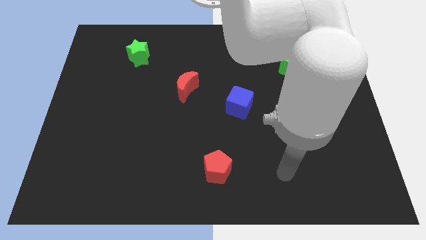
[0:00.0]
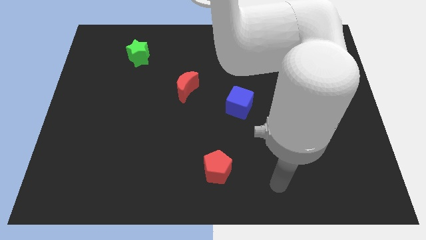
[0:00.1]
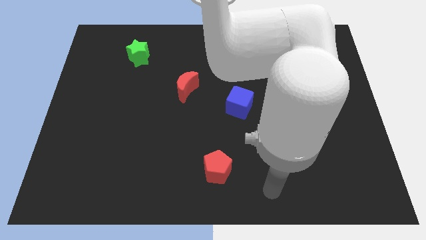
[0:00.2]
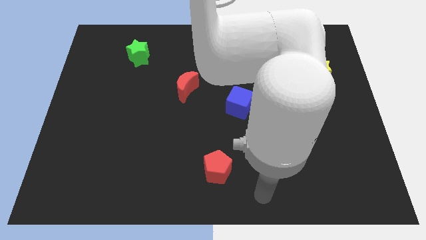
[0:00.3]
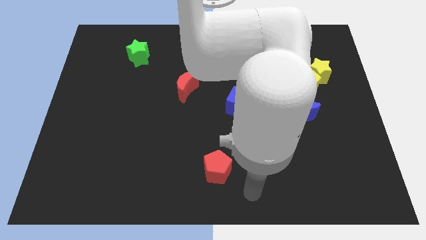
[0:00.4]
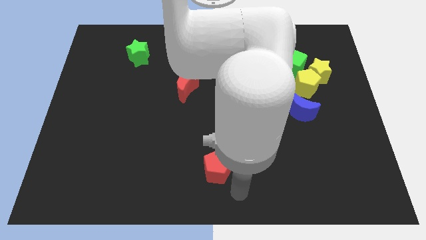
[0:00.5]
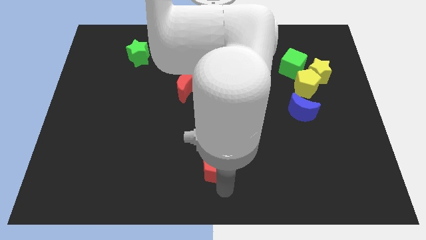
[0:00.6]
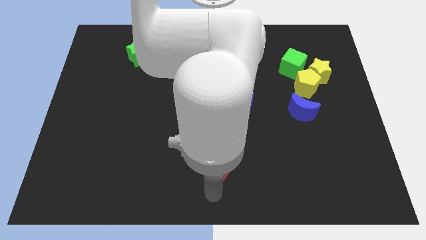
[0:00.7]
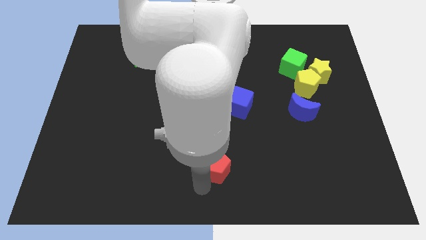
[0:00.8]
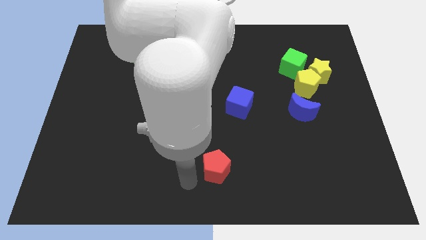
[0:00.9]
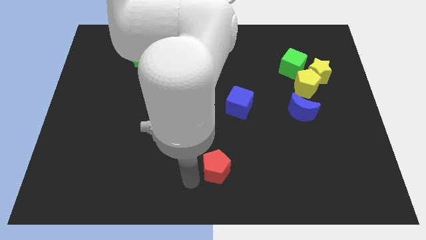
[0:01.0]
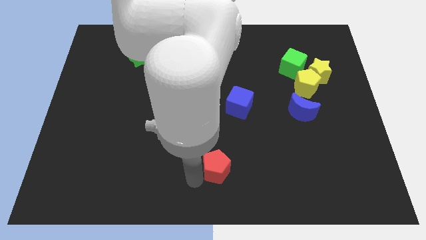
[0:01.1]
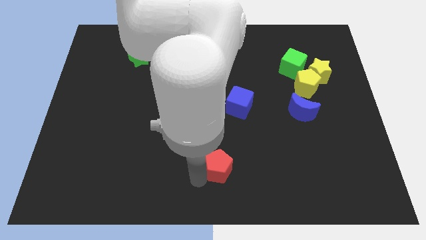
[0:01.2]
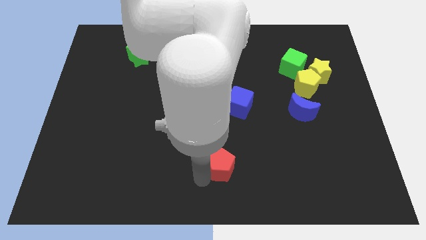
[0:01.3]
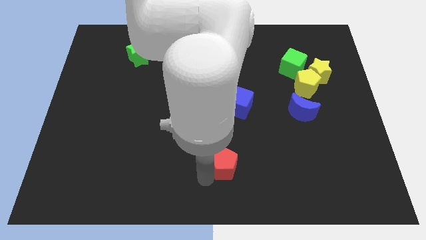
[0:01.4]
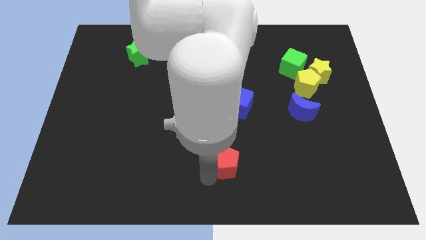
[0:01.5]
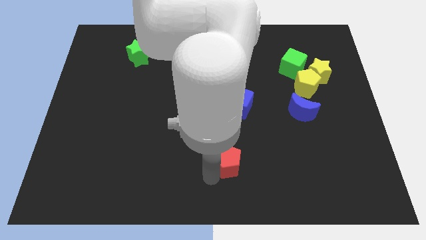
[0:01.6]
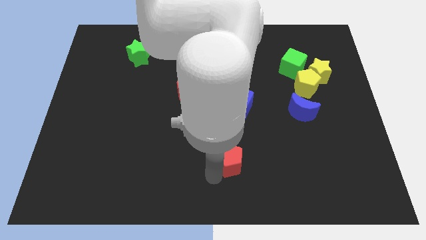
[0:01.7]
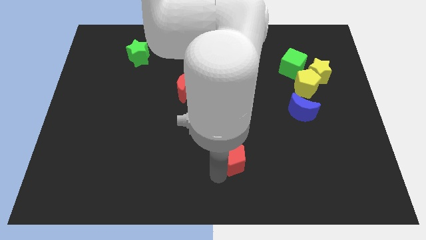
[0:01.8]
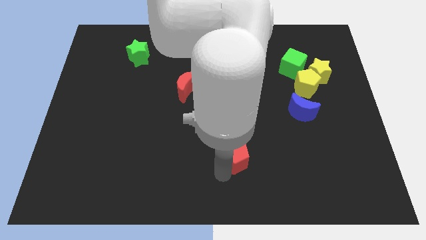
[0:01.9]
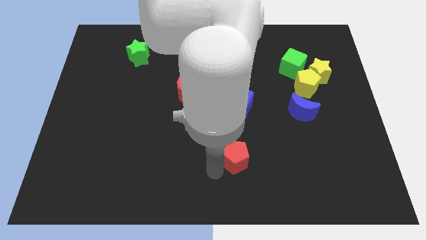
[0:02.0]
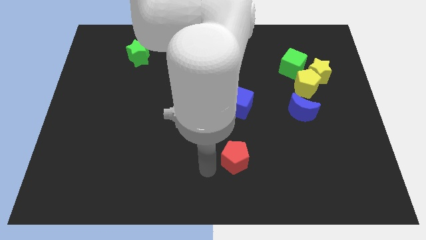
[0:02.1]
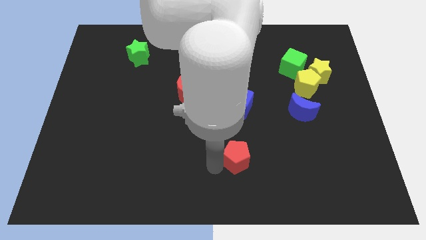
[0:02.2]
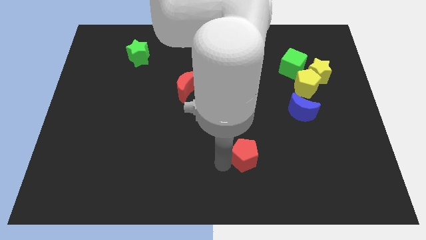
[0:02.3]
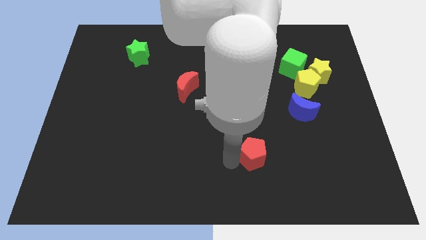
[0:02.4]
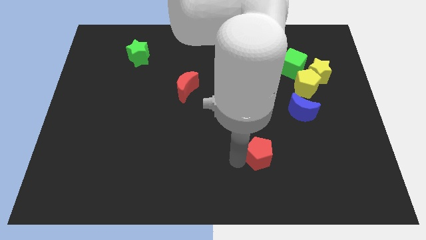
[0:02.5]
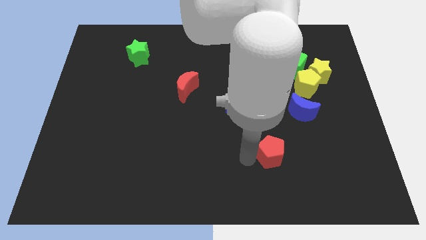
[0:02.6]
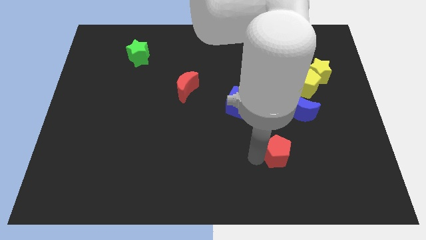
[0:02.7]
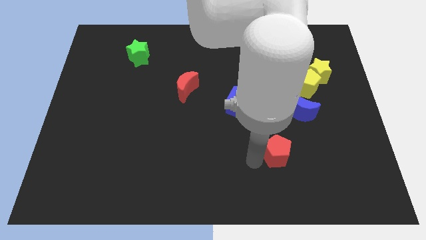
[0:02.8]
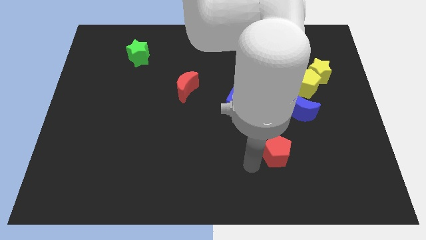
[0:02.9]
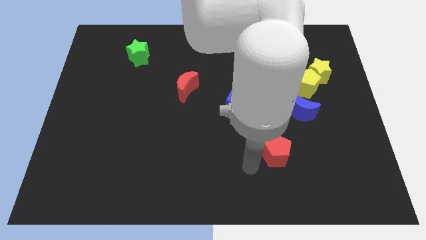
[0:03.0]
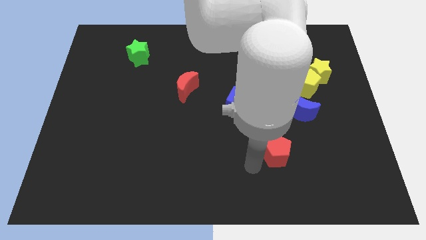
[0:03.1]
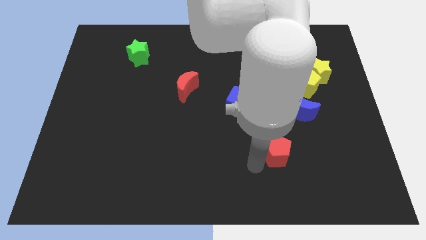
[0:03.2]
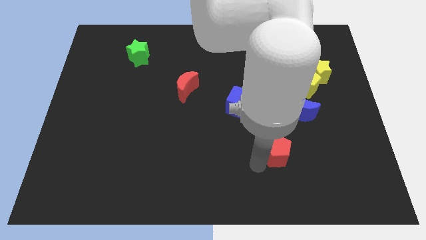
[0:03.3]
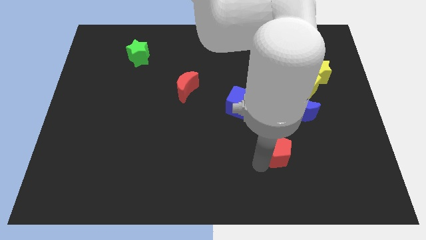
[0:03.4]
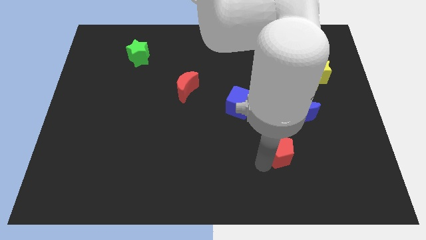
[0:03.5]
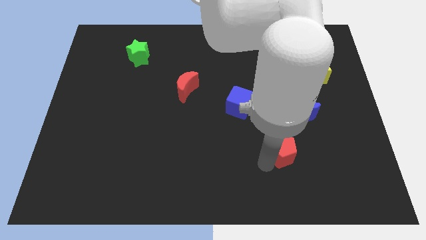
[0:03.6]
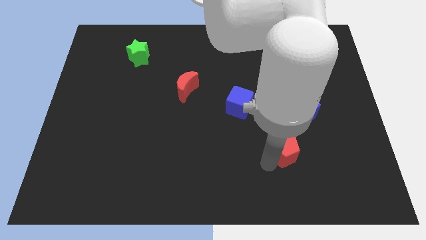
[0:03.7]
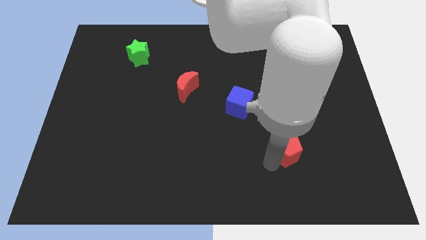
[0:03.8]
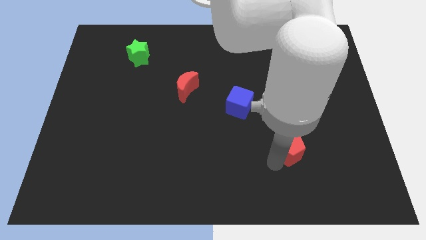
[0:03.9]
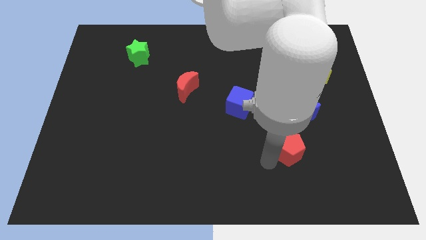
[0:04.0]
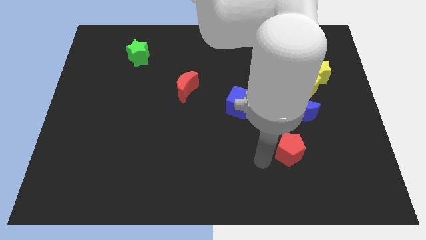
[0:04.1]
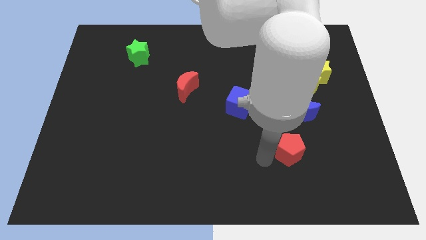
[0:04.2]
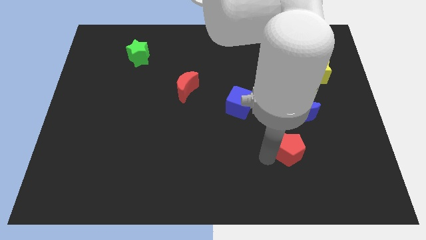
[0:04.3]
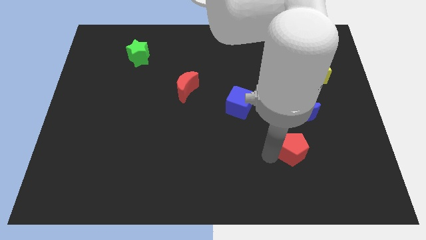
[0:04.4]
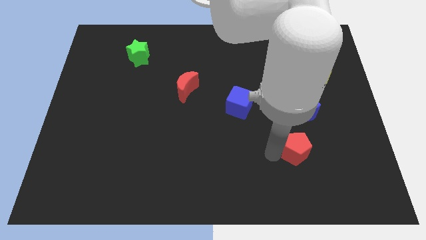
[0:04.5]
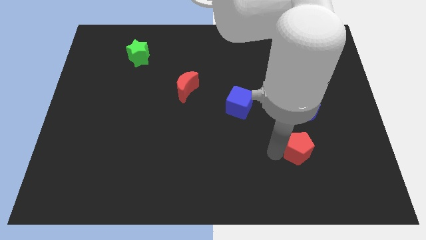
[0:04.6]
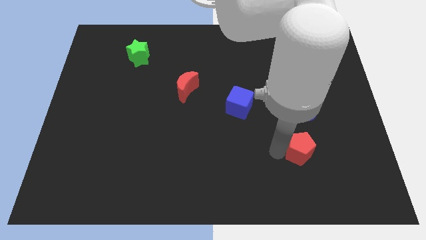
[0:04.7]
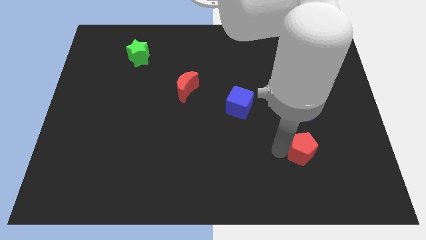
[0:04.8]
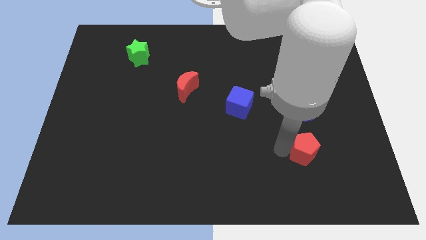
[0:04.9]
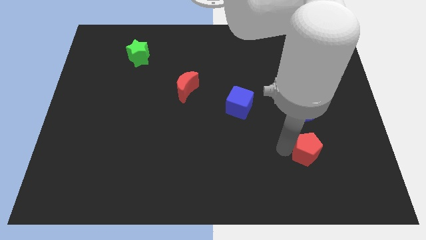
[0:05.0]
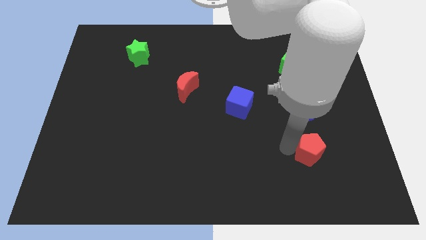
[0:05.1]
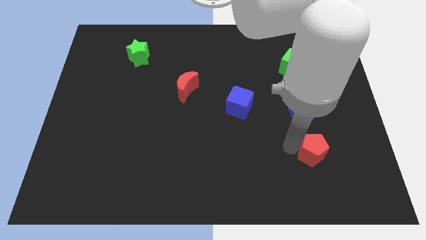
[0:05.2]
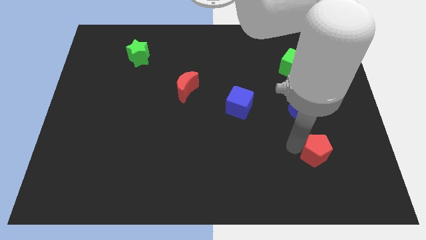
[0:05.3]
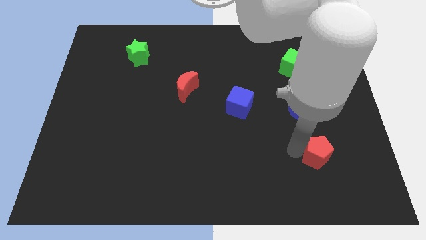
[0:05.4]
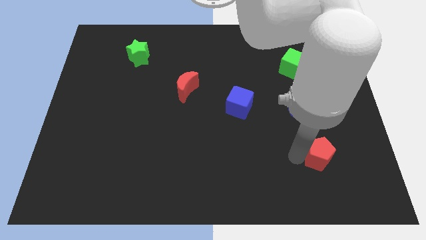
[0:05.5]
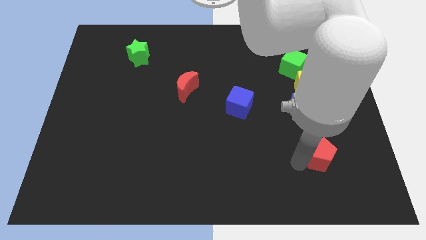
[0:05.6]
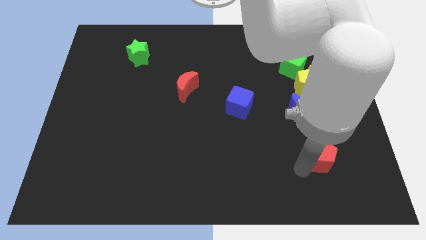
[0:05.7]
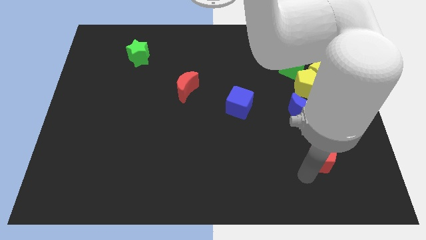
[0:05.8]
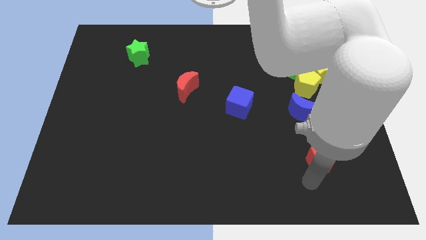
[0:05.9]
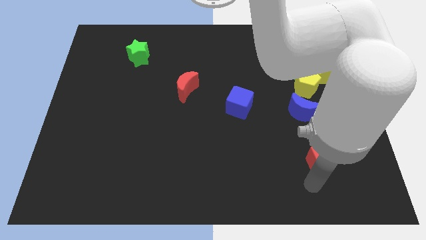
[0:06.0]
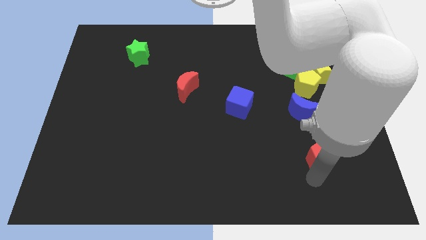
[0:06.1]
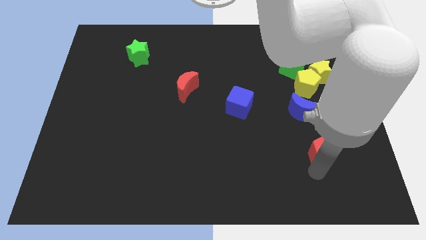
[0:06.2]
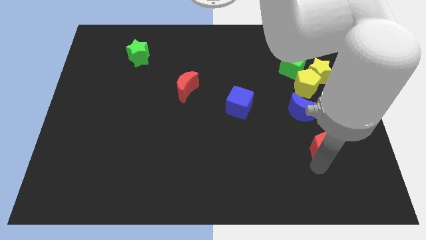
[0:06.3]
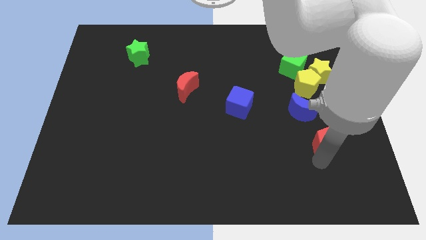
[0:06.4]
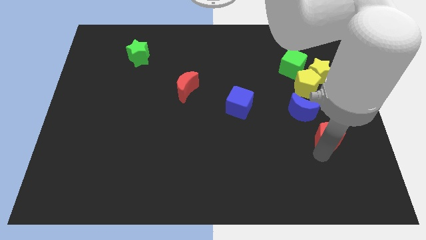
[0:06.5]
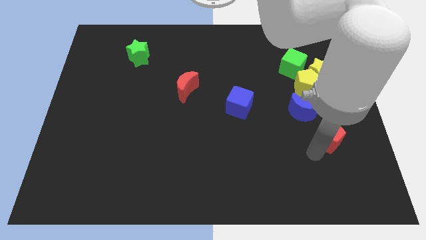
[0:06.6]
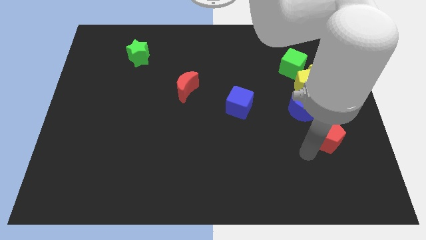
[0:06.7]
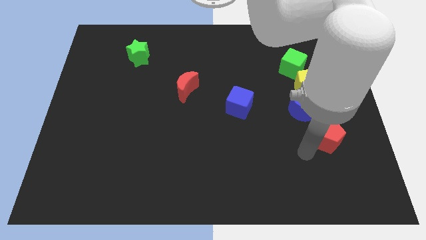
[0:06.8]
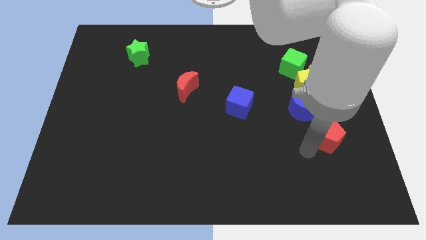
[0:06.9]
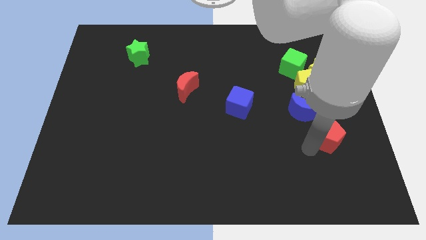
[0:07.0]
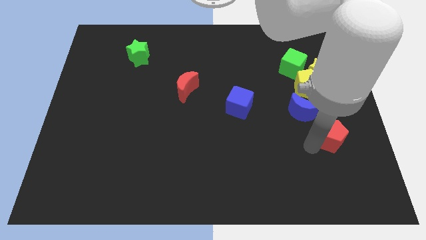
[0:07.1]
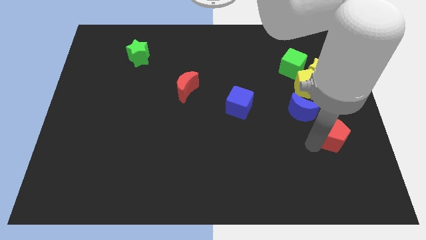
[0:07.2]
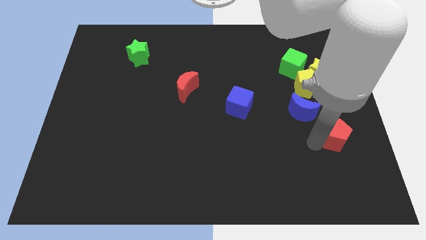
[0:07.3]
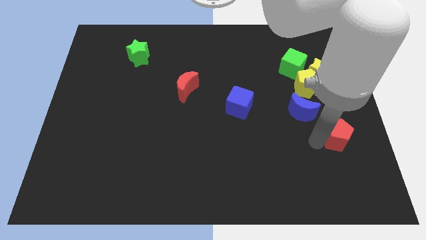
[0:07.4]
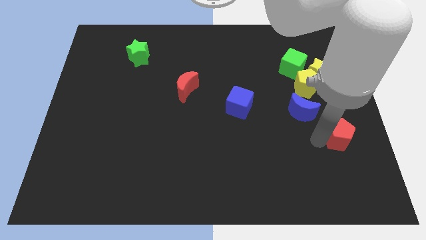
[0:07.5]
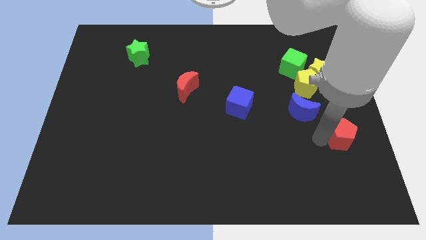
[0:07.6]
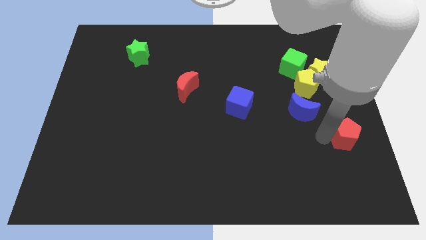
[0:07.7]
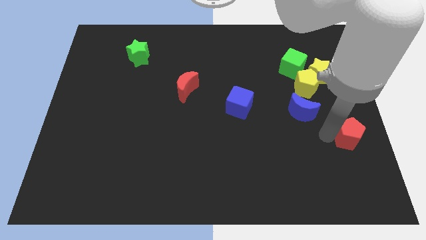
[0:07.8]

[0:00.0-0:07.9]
slide the red pentagon to the right side
